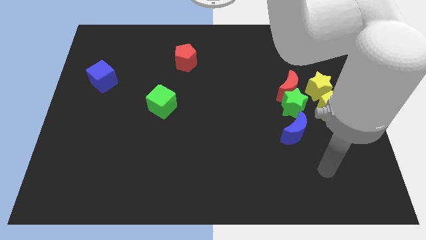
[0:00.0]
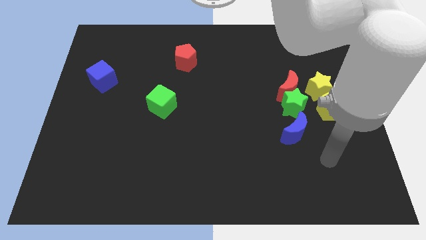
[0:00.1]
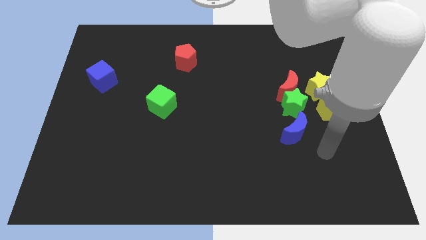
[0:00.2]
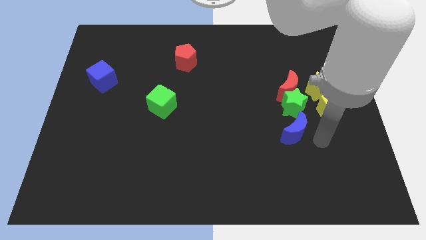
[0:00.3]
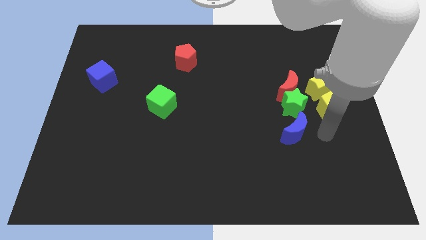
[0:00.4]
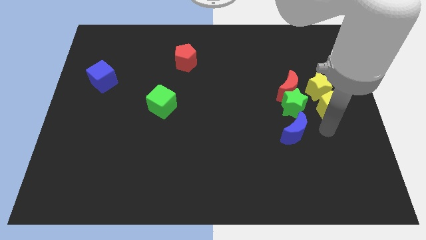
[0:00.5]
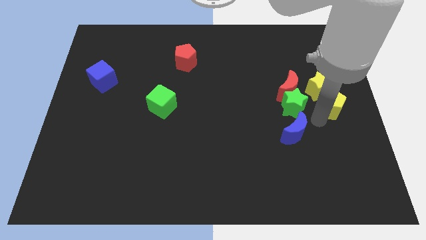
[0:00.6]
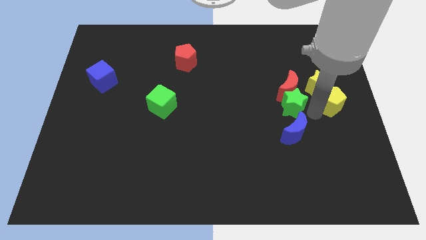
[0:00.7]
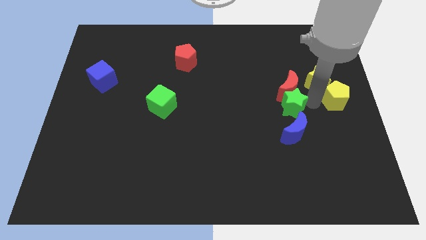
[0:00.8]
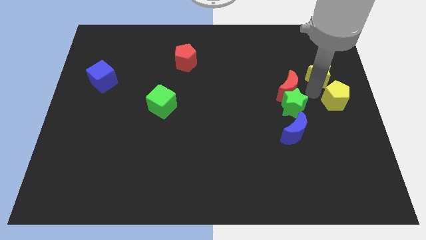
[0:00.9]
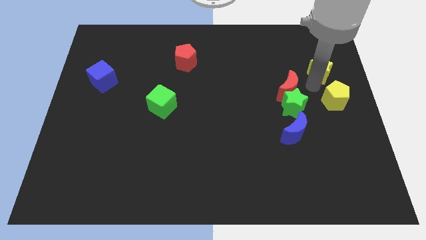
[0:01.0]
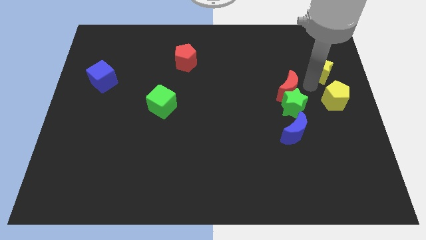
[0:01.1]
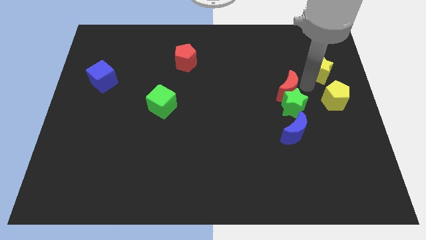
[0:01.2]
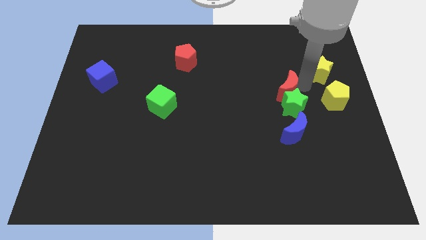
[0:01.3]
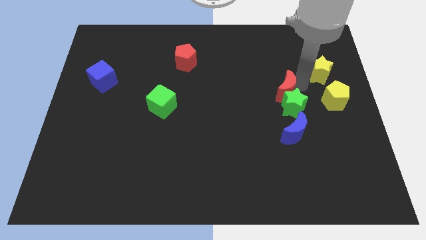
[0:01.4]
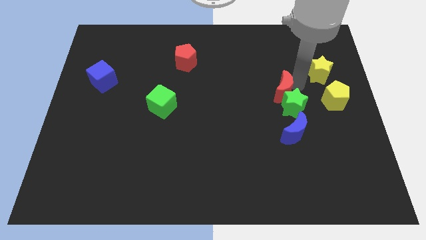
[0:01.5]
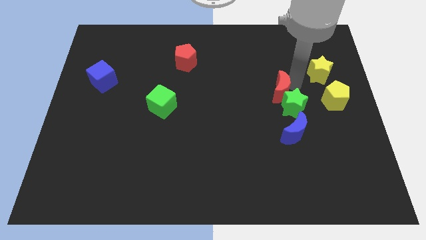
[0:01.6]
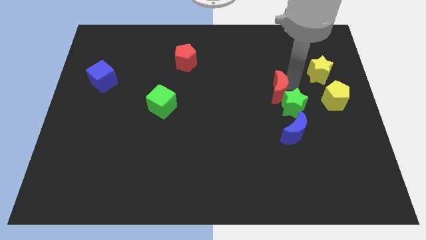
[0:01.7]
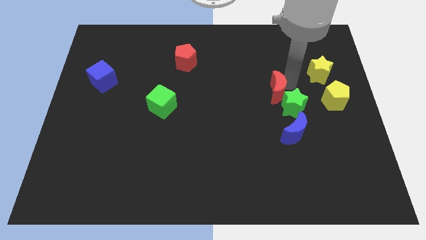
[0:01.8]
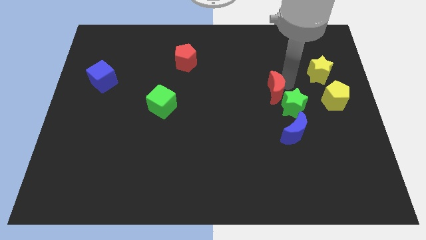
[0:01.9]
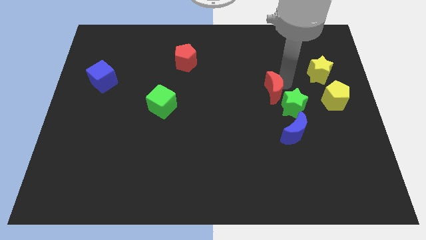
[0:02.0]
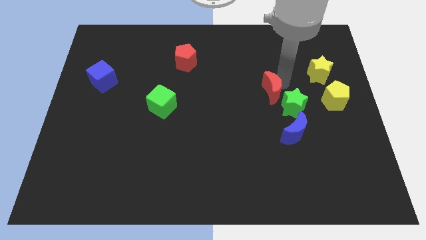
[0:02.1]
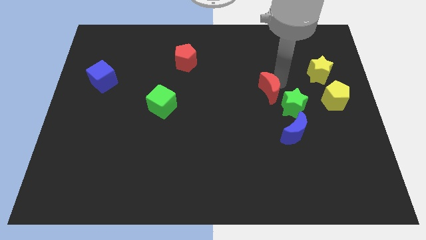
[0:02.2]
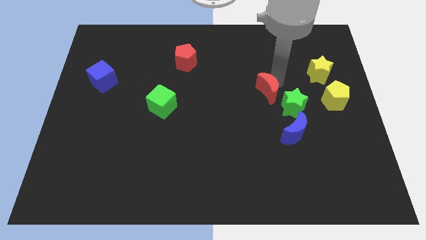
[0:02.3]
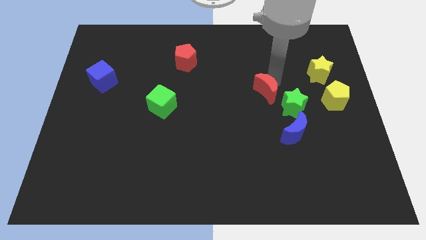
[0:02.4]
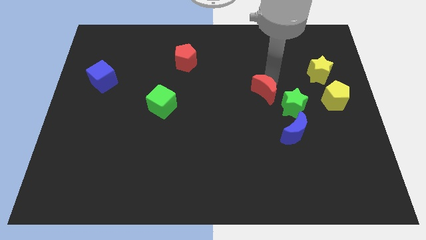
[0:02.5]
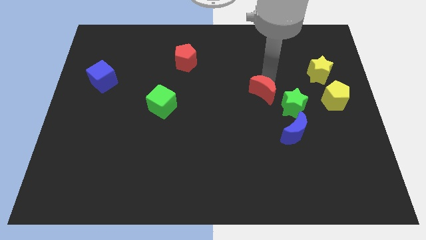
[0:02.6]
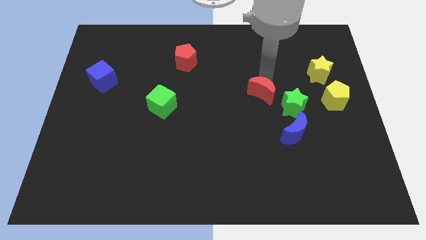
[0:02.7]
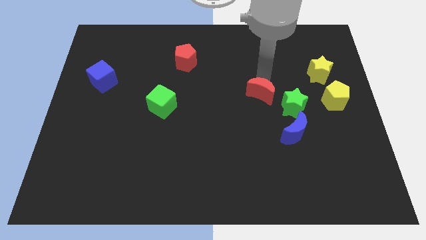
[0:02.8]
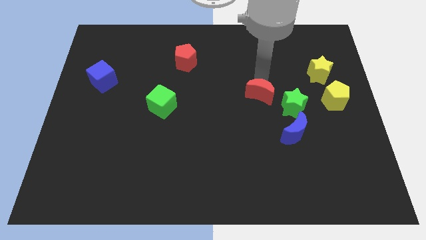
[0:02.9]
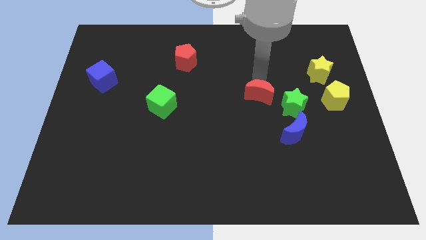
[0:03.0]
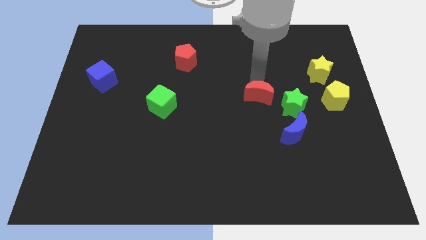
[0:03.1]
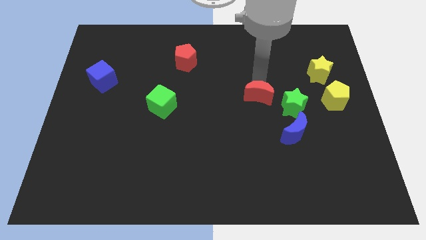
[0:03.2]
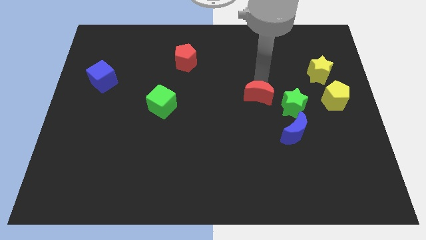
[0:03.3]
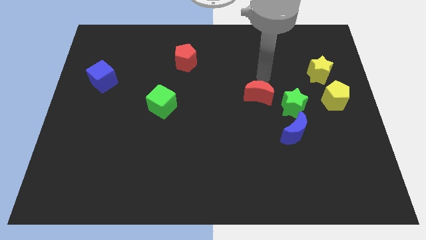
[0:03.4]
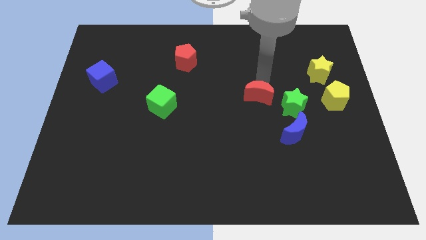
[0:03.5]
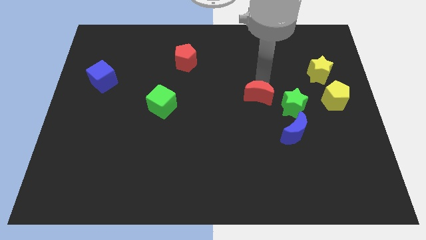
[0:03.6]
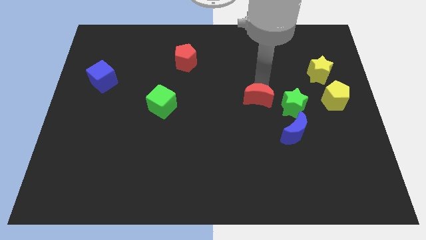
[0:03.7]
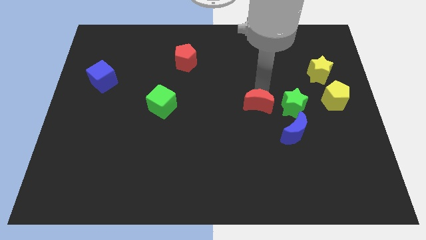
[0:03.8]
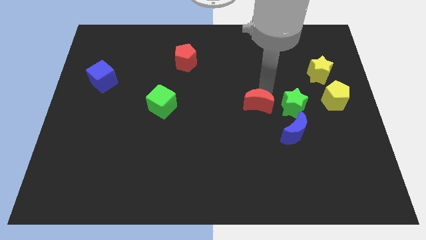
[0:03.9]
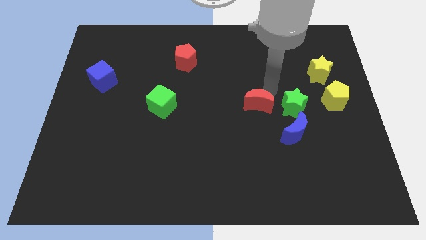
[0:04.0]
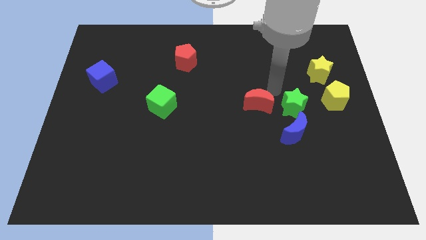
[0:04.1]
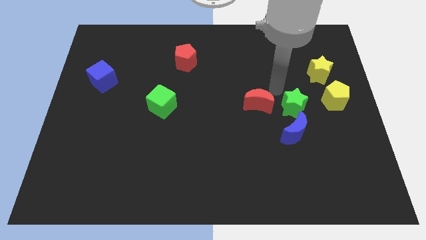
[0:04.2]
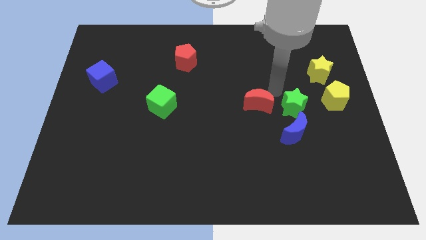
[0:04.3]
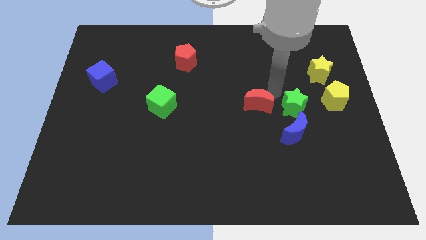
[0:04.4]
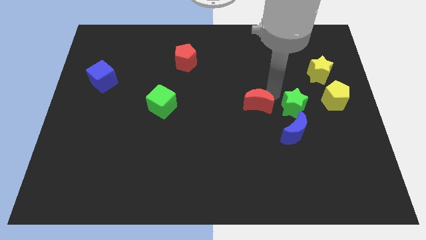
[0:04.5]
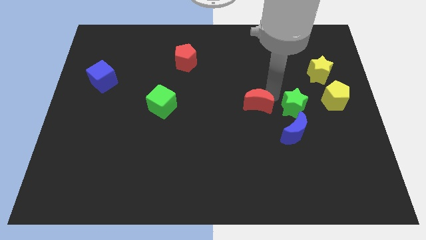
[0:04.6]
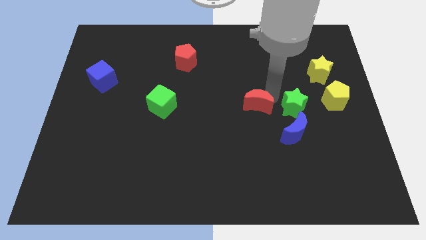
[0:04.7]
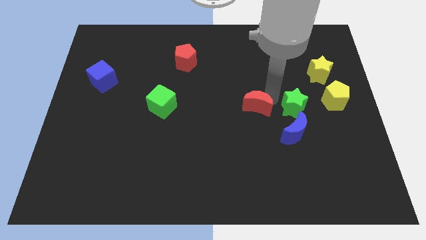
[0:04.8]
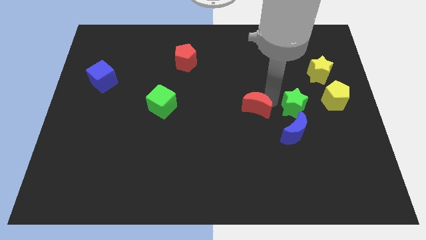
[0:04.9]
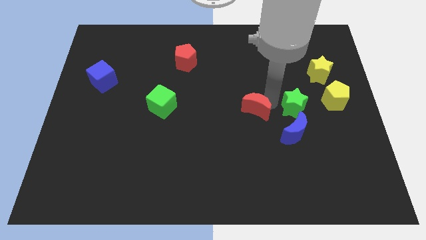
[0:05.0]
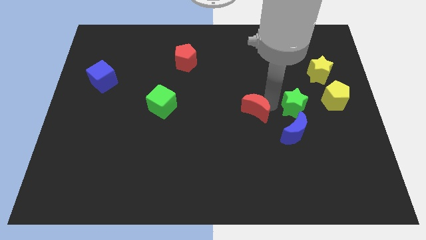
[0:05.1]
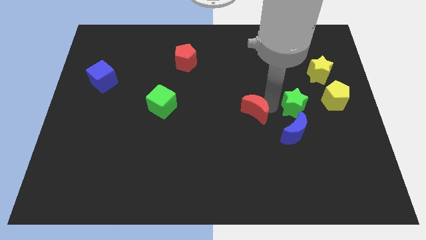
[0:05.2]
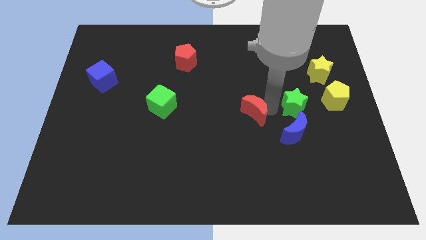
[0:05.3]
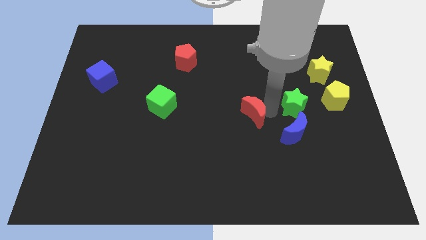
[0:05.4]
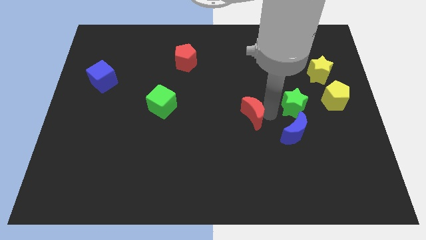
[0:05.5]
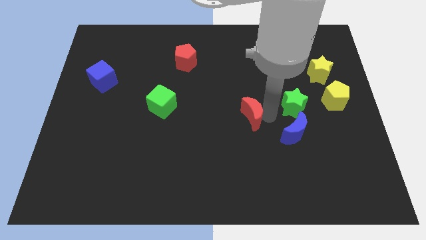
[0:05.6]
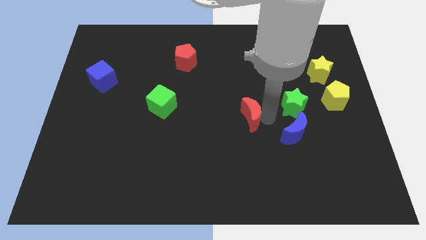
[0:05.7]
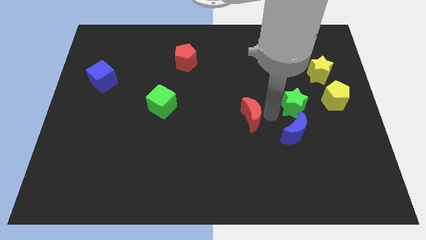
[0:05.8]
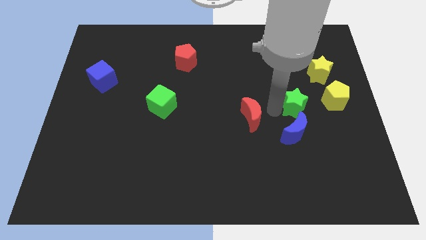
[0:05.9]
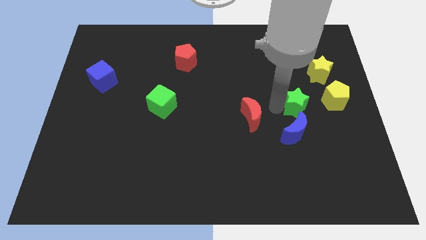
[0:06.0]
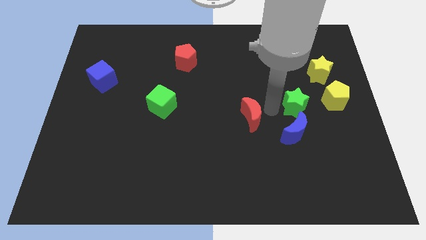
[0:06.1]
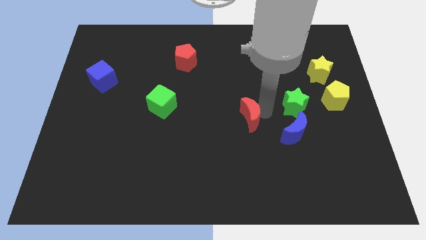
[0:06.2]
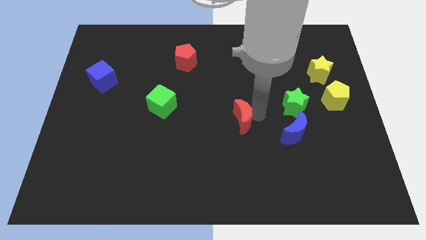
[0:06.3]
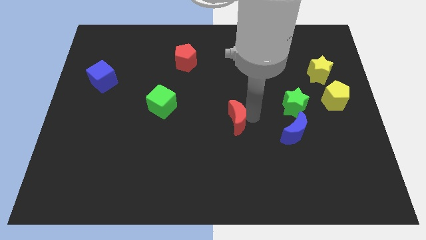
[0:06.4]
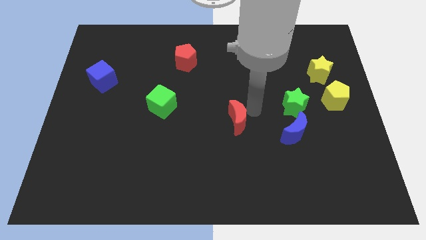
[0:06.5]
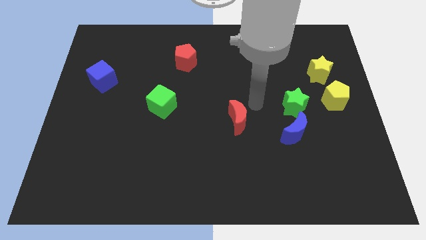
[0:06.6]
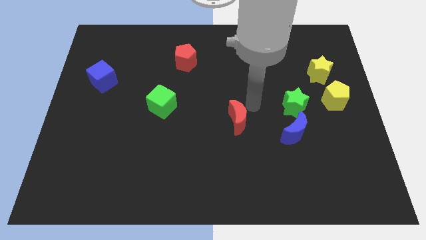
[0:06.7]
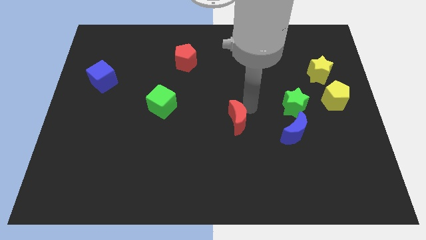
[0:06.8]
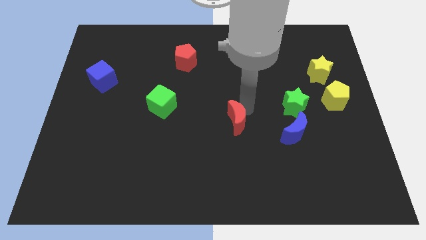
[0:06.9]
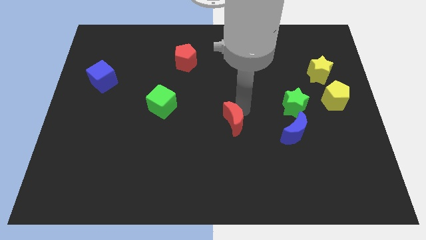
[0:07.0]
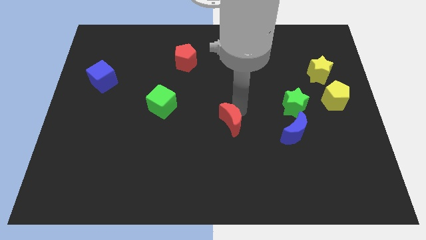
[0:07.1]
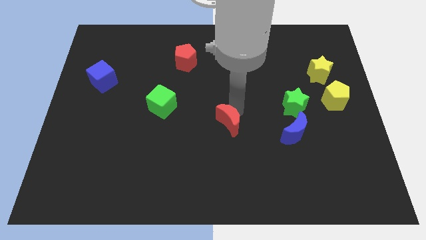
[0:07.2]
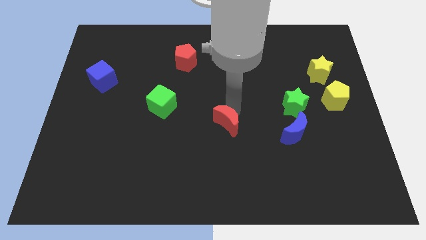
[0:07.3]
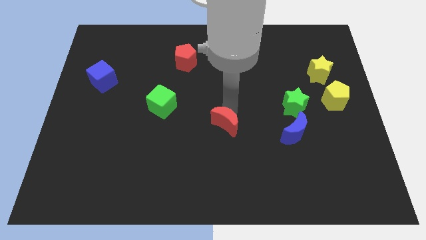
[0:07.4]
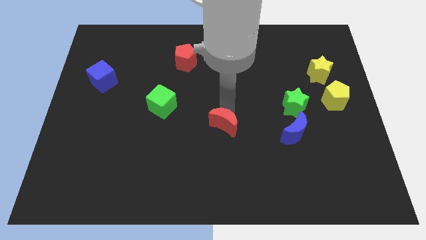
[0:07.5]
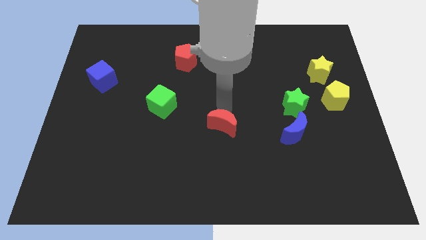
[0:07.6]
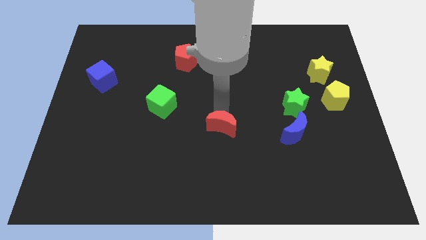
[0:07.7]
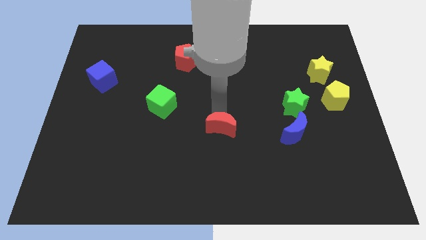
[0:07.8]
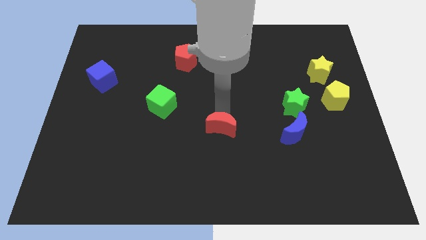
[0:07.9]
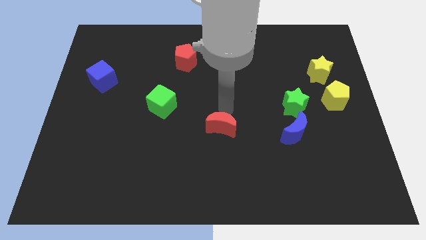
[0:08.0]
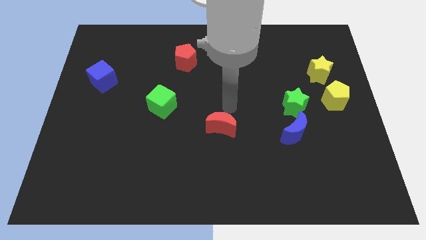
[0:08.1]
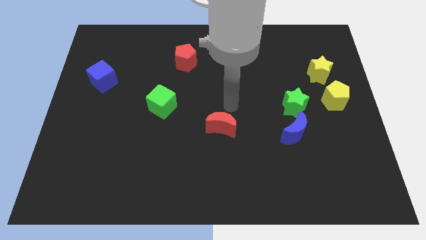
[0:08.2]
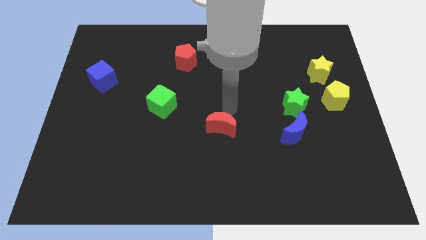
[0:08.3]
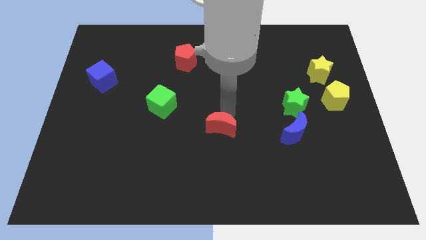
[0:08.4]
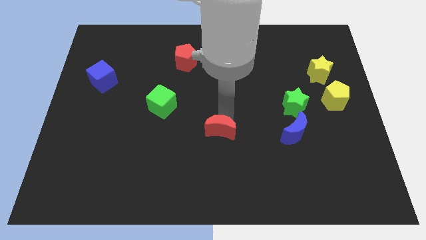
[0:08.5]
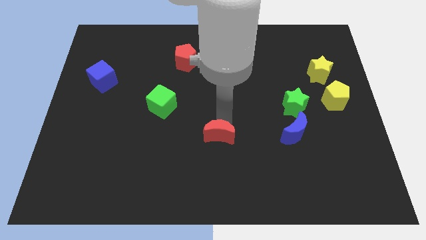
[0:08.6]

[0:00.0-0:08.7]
push the red moon downwards and to the left diagonally
